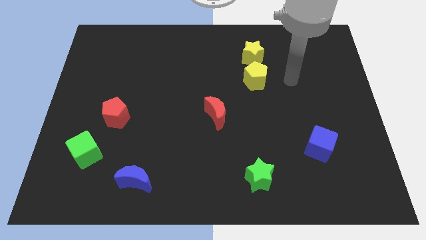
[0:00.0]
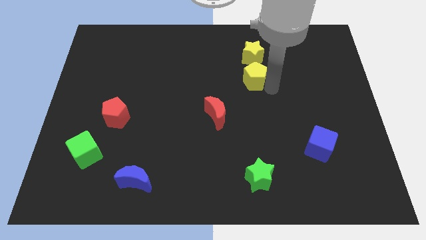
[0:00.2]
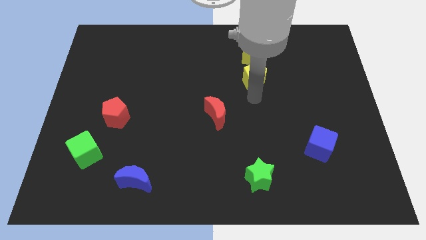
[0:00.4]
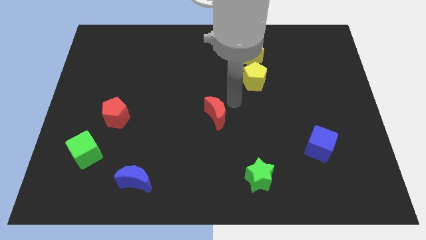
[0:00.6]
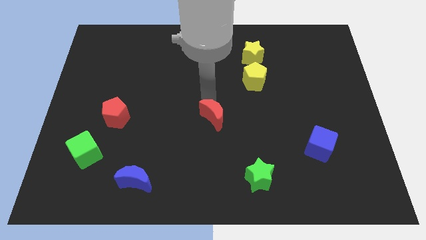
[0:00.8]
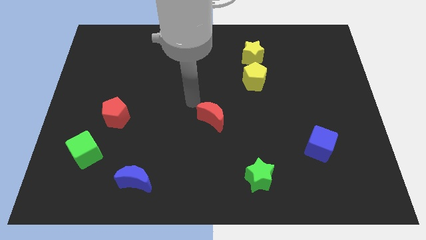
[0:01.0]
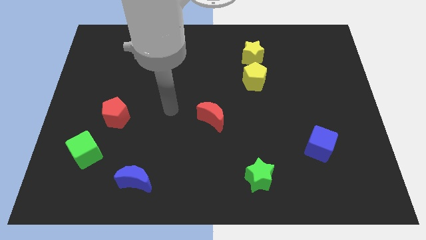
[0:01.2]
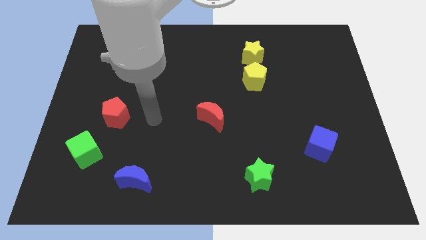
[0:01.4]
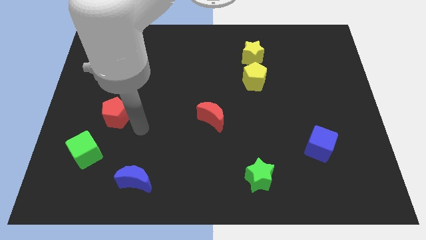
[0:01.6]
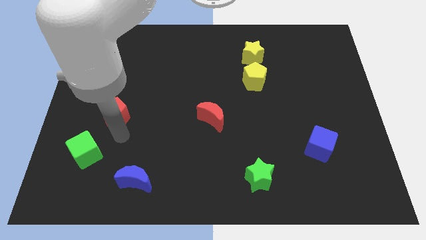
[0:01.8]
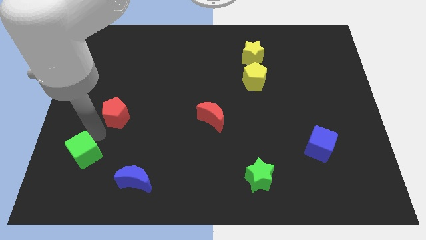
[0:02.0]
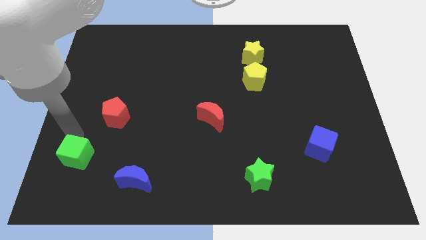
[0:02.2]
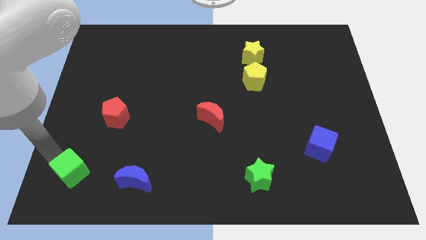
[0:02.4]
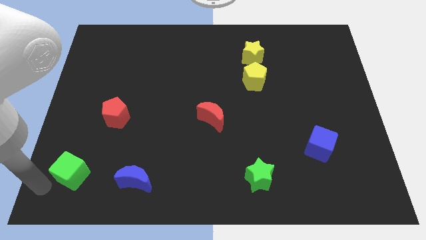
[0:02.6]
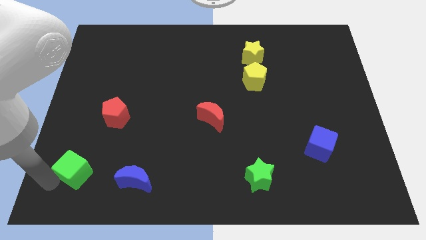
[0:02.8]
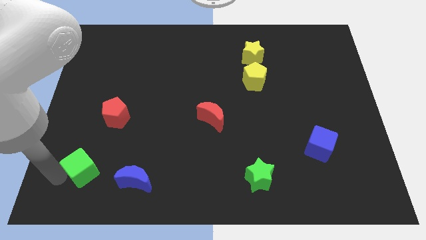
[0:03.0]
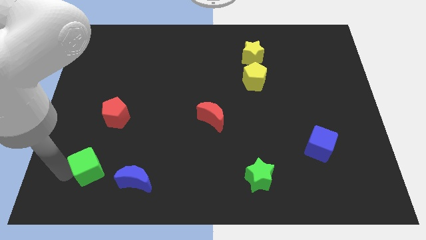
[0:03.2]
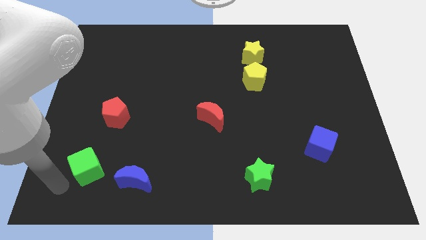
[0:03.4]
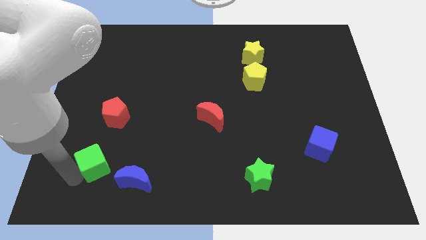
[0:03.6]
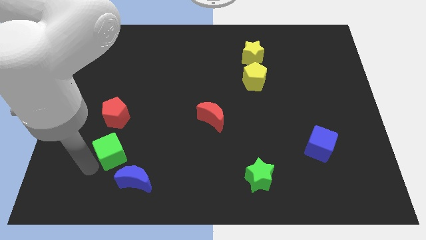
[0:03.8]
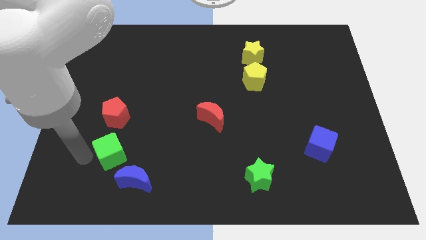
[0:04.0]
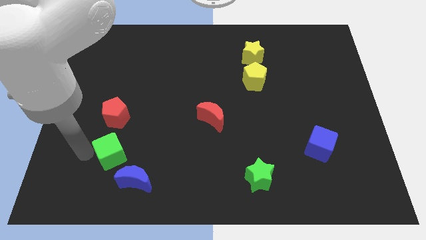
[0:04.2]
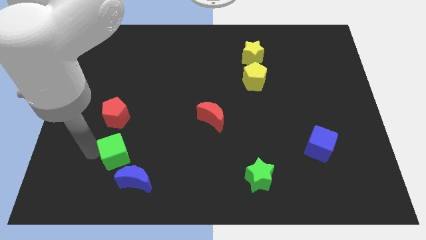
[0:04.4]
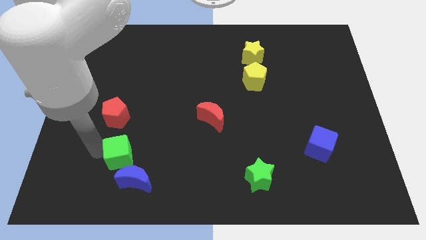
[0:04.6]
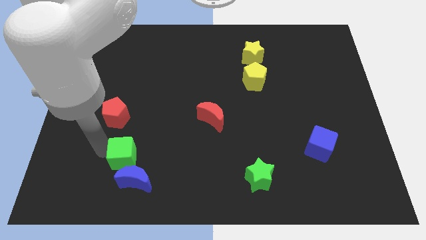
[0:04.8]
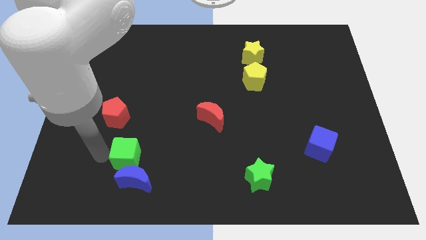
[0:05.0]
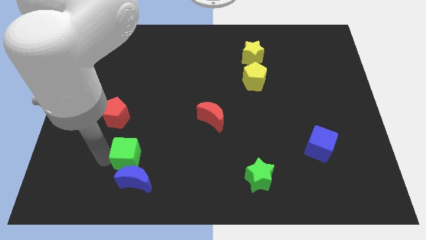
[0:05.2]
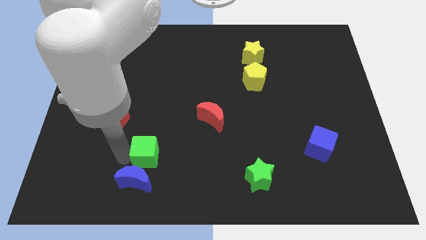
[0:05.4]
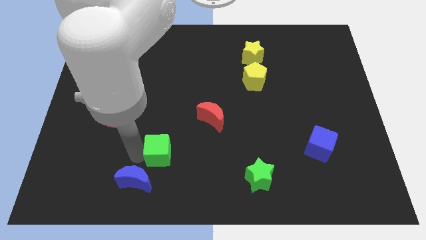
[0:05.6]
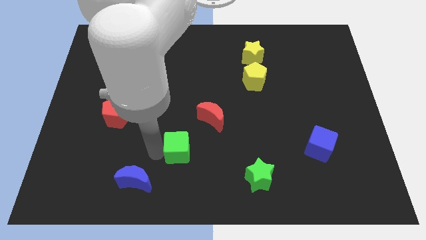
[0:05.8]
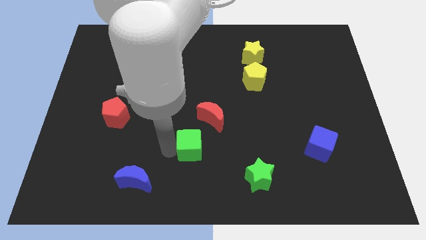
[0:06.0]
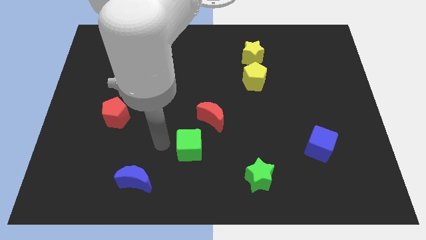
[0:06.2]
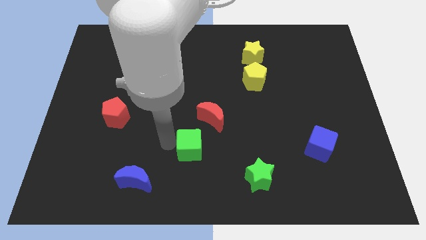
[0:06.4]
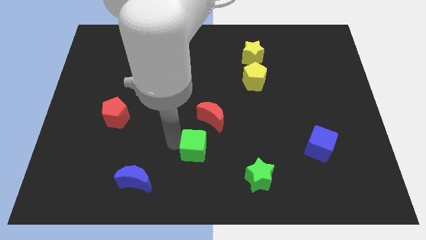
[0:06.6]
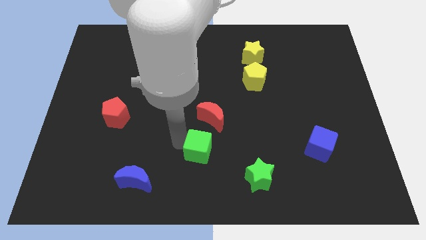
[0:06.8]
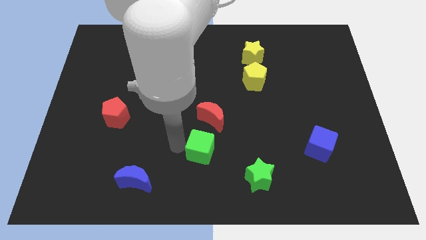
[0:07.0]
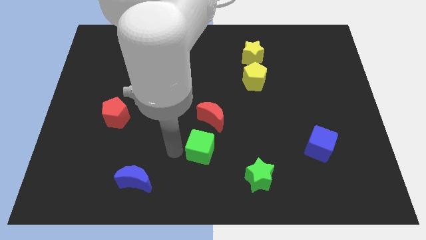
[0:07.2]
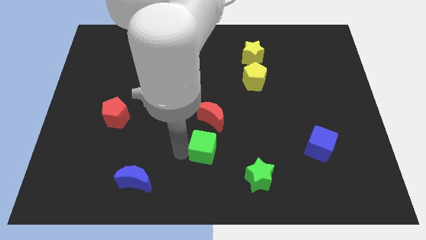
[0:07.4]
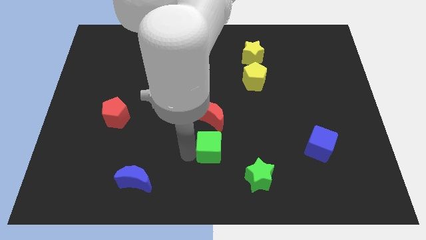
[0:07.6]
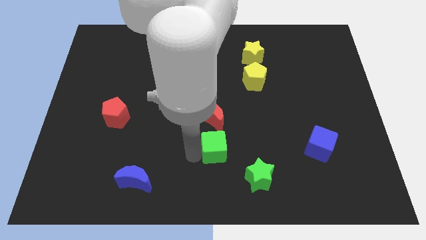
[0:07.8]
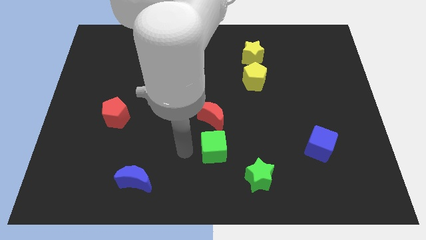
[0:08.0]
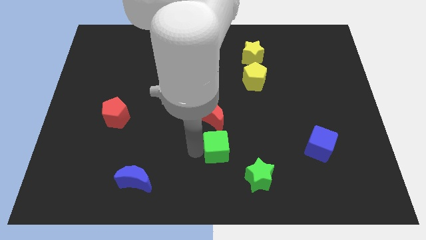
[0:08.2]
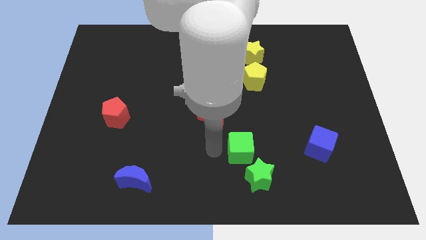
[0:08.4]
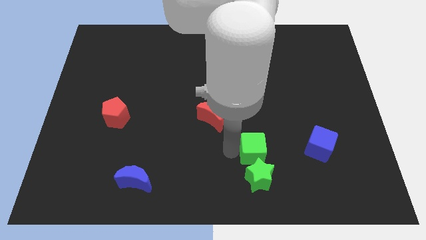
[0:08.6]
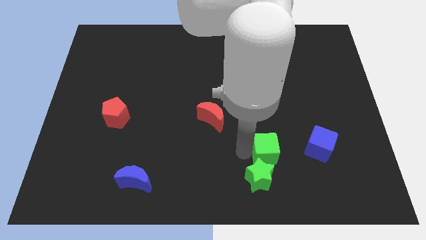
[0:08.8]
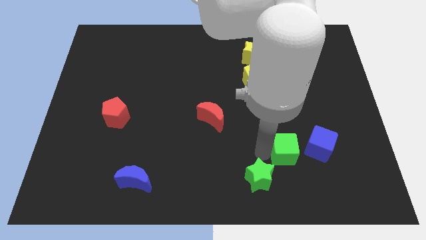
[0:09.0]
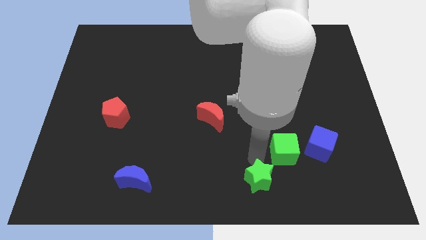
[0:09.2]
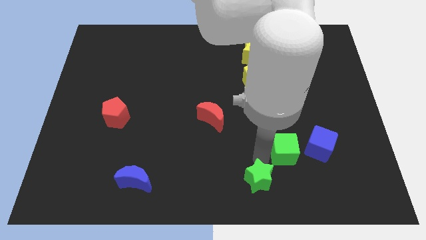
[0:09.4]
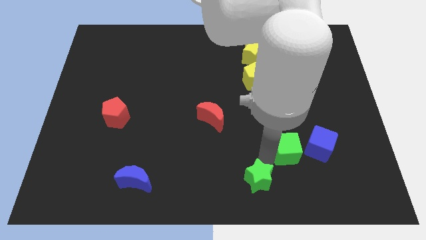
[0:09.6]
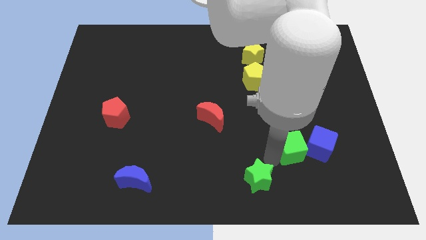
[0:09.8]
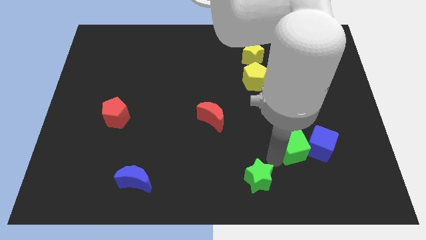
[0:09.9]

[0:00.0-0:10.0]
push the green cube to the blue cube

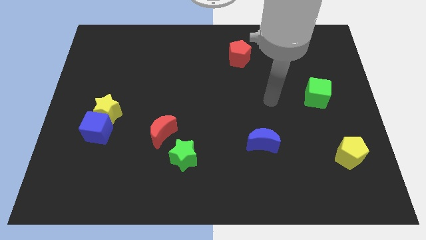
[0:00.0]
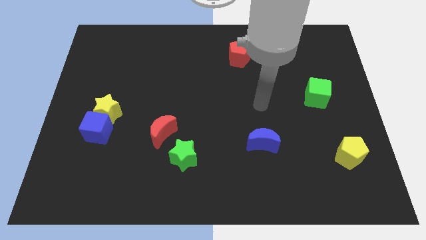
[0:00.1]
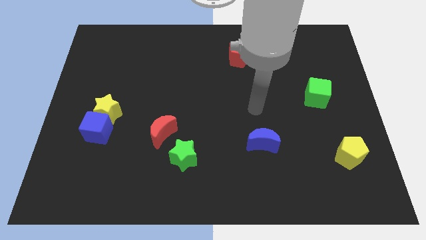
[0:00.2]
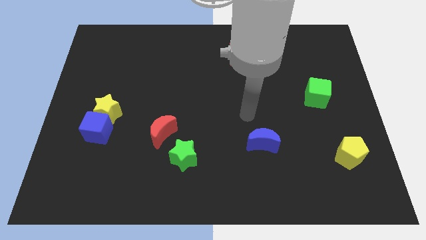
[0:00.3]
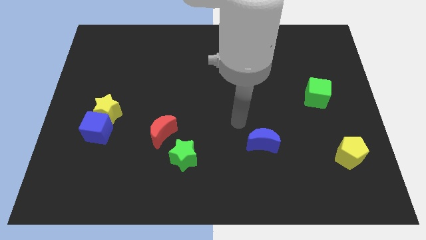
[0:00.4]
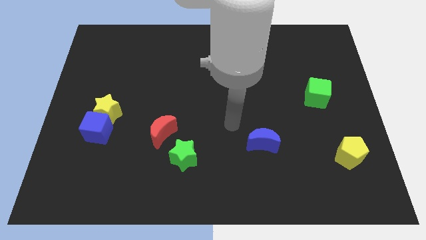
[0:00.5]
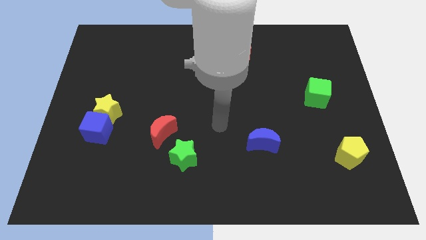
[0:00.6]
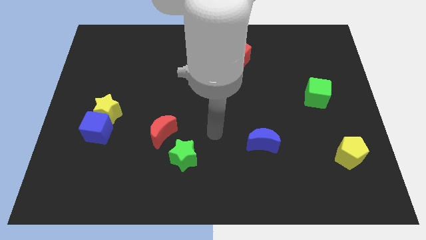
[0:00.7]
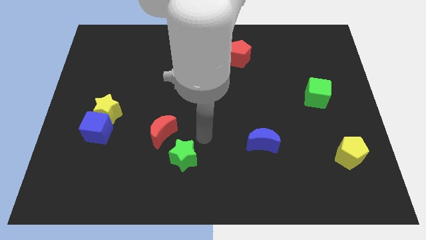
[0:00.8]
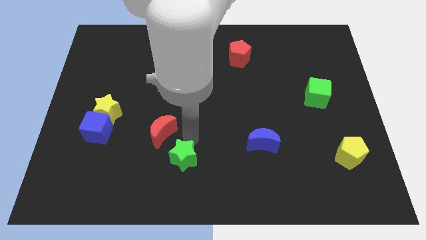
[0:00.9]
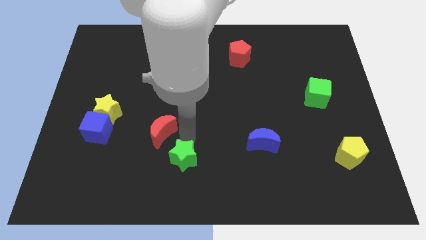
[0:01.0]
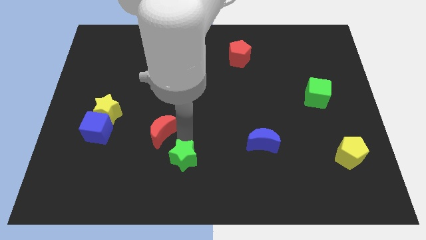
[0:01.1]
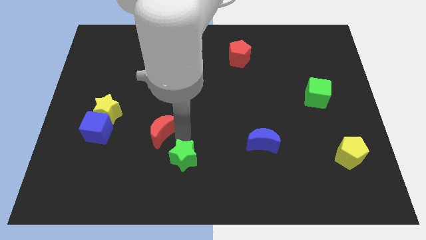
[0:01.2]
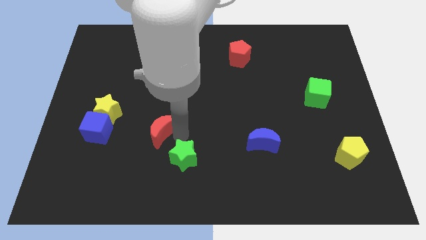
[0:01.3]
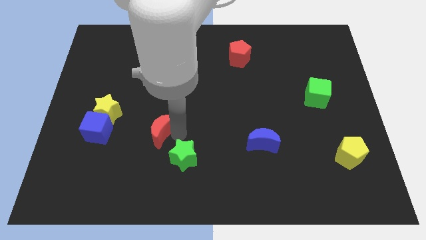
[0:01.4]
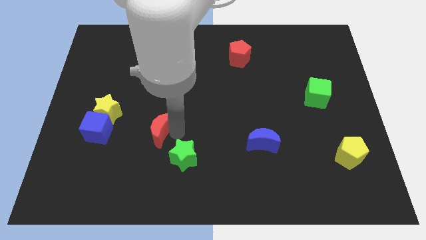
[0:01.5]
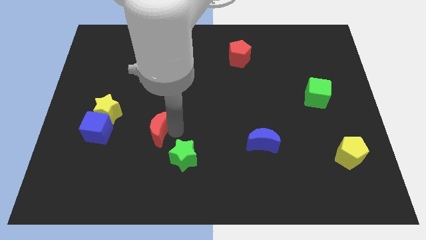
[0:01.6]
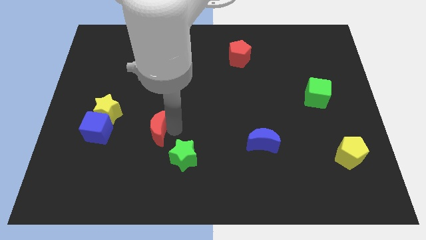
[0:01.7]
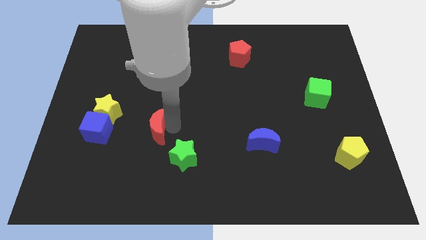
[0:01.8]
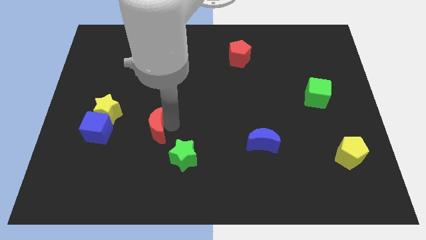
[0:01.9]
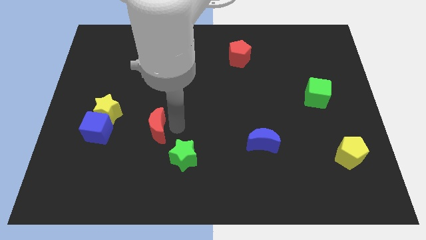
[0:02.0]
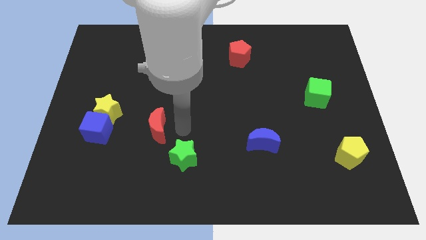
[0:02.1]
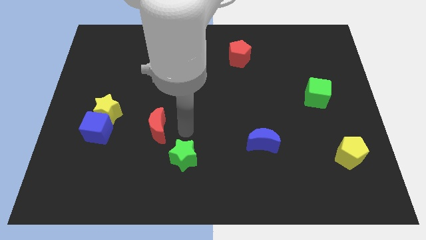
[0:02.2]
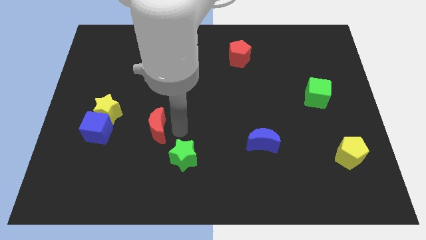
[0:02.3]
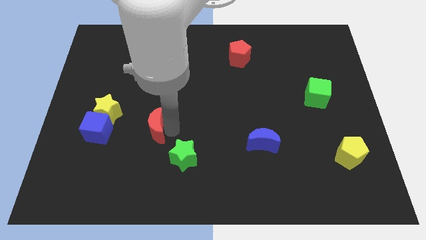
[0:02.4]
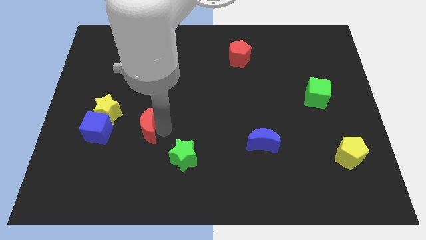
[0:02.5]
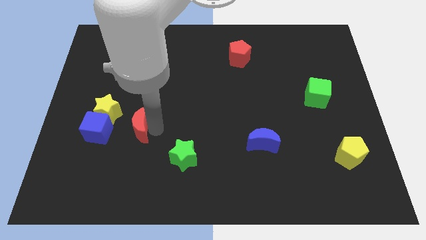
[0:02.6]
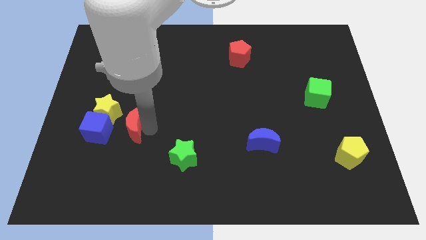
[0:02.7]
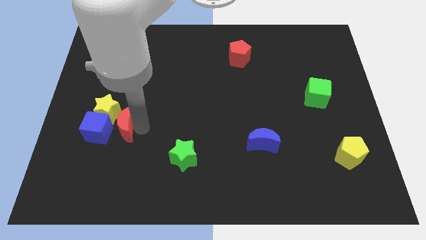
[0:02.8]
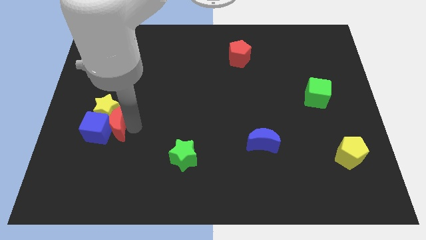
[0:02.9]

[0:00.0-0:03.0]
put the red moon close to the blue cube

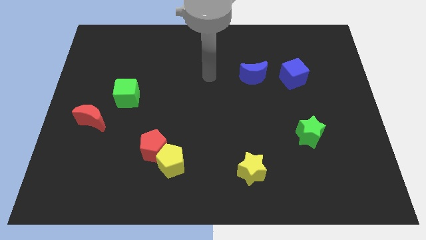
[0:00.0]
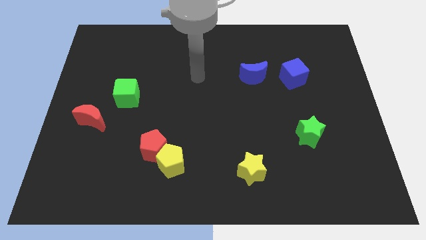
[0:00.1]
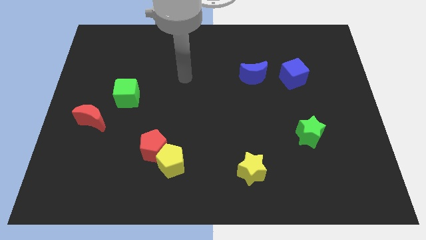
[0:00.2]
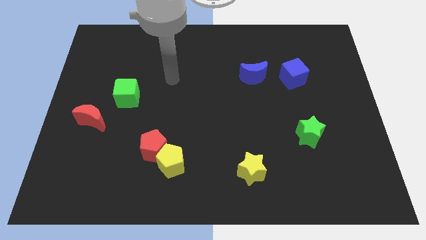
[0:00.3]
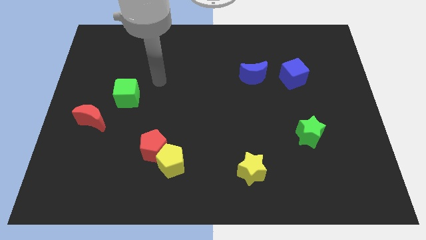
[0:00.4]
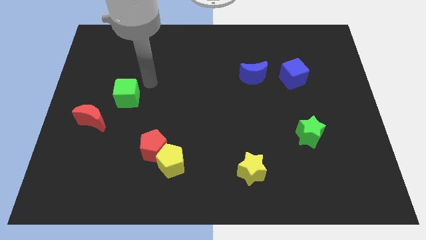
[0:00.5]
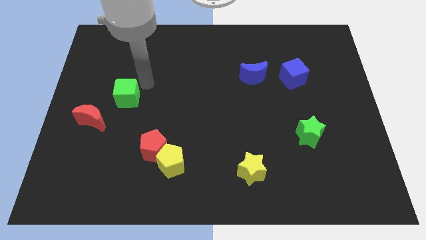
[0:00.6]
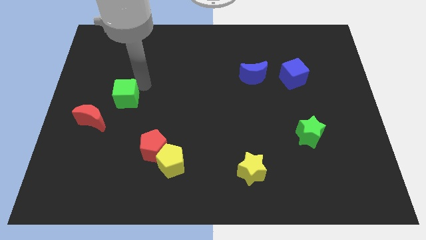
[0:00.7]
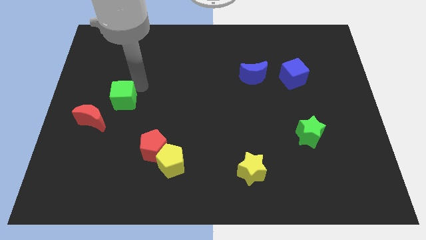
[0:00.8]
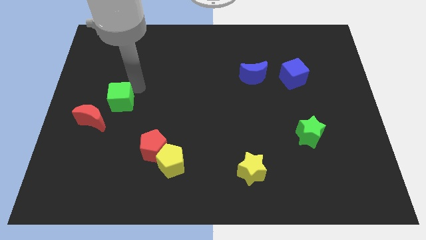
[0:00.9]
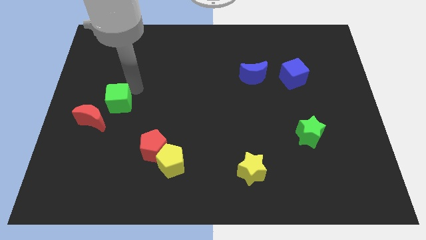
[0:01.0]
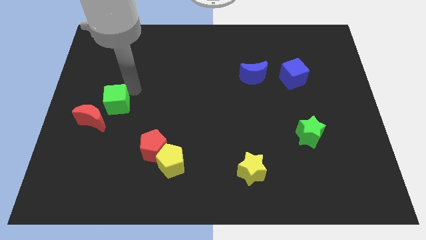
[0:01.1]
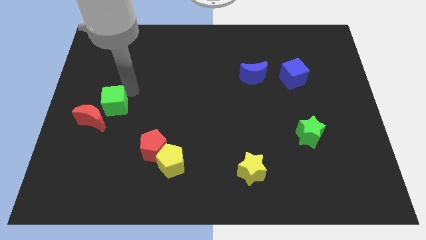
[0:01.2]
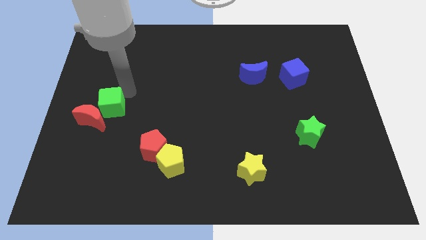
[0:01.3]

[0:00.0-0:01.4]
move the green cube to the red moon
